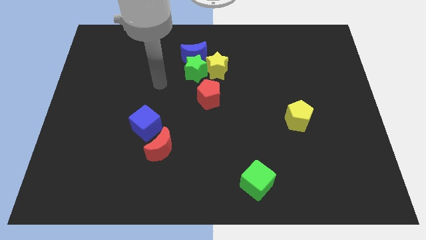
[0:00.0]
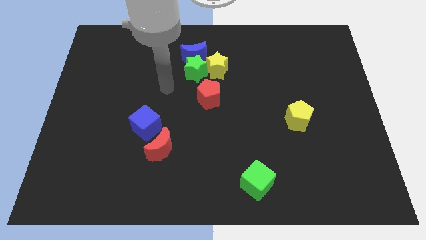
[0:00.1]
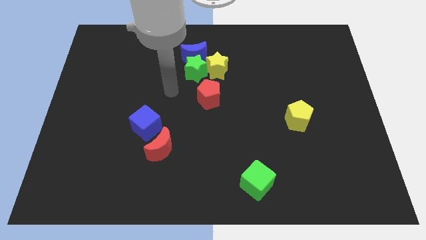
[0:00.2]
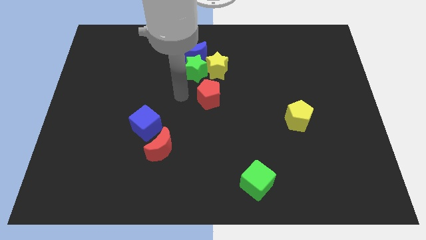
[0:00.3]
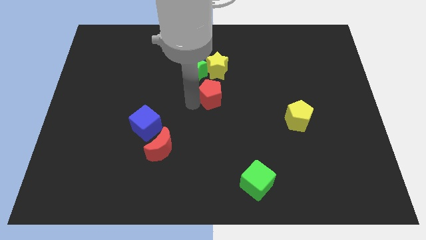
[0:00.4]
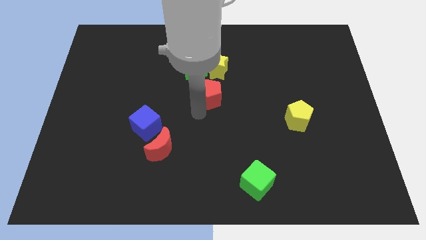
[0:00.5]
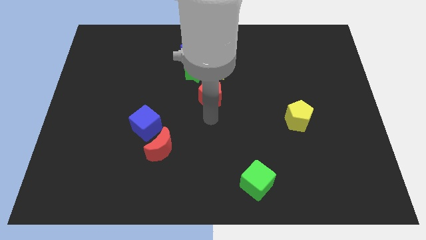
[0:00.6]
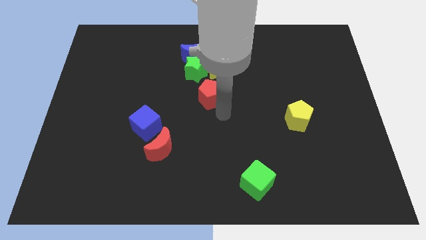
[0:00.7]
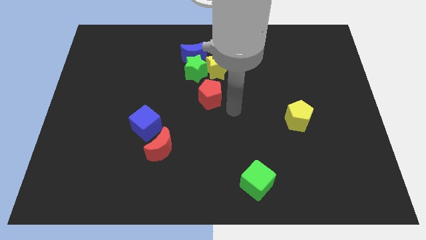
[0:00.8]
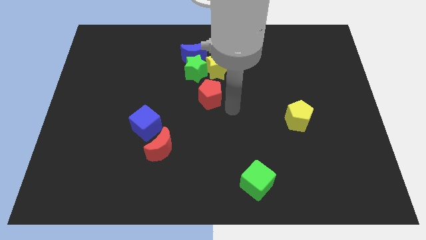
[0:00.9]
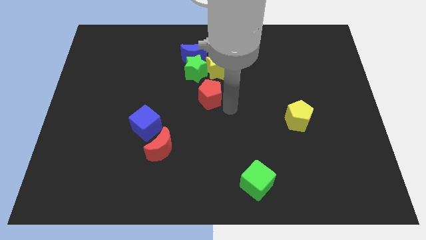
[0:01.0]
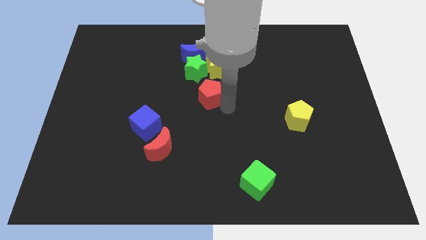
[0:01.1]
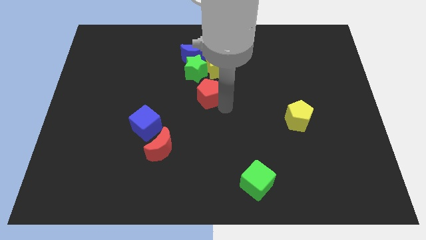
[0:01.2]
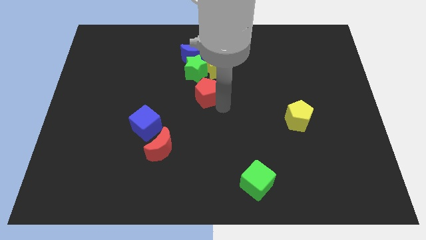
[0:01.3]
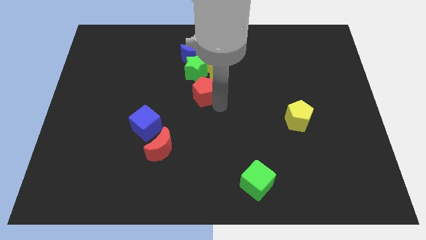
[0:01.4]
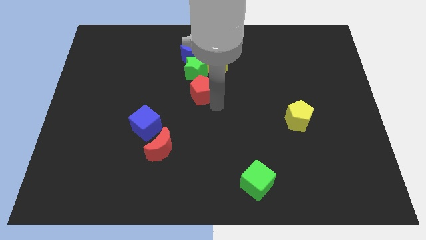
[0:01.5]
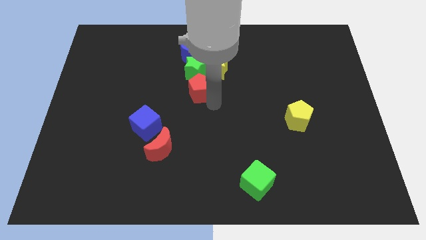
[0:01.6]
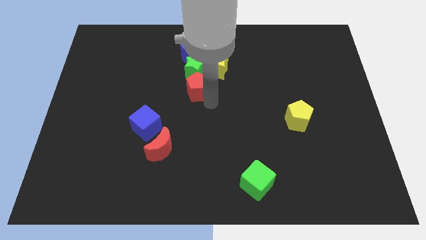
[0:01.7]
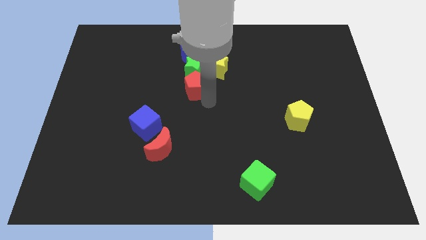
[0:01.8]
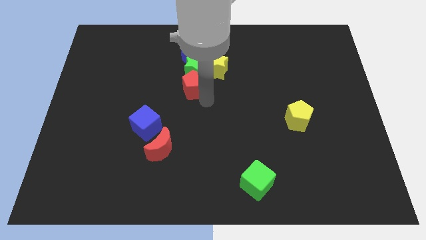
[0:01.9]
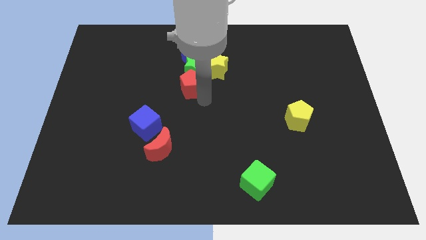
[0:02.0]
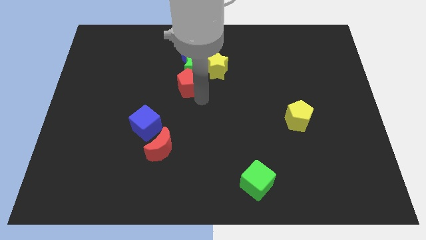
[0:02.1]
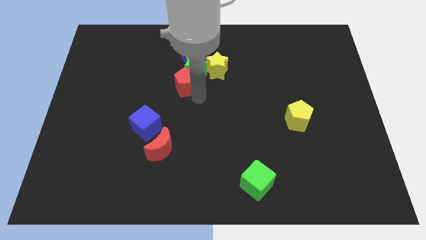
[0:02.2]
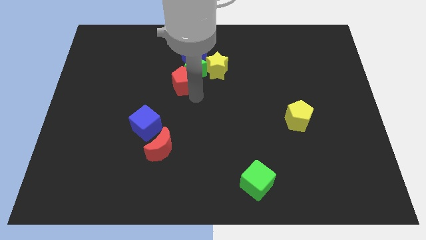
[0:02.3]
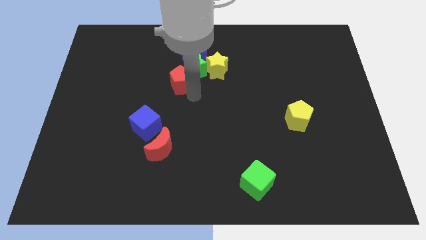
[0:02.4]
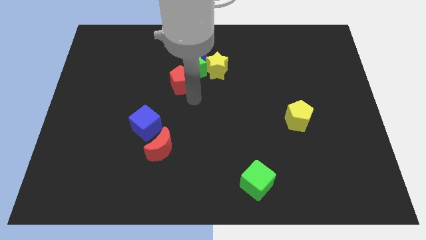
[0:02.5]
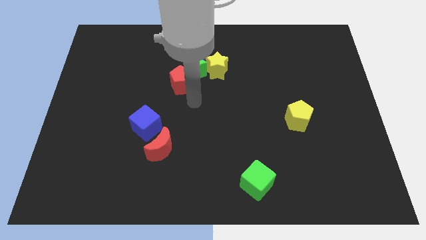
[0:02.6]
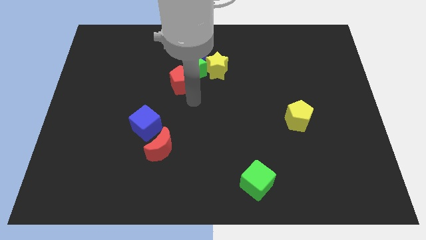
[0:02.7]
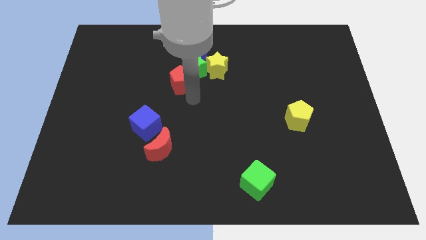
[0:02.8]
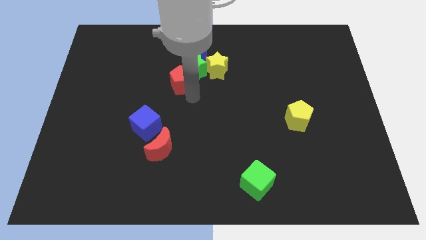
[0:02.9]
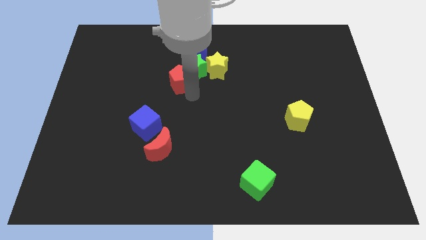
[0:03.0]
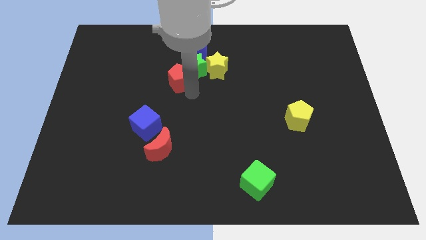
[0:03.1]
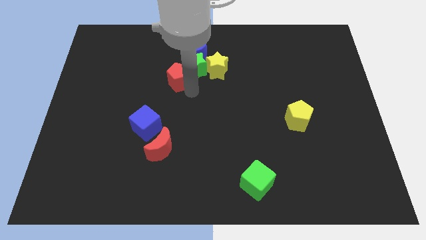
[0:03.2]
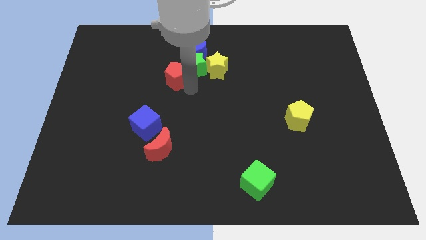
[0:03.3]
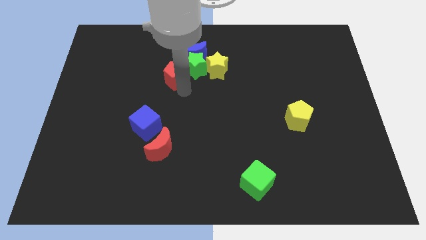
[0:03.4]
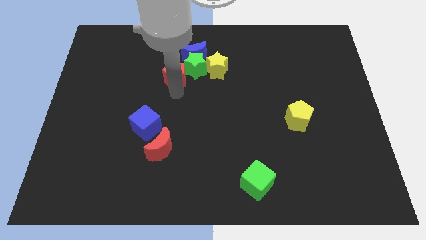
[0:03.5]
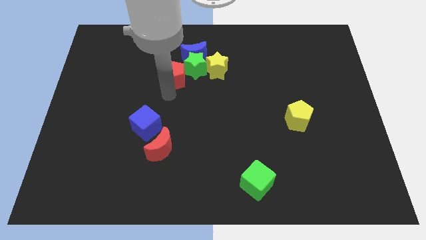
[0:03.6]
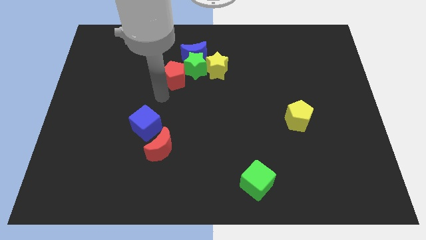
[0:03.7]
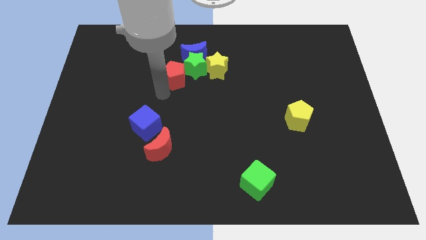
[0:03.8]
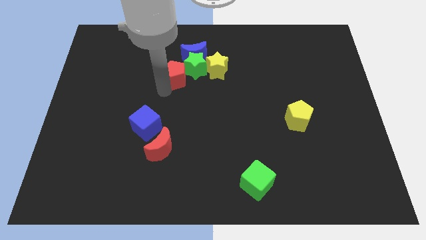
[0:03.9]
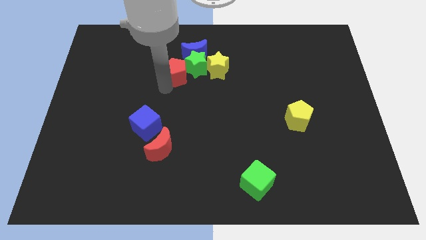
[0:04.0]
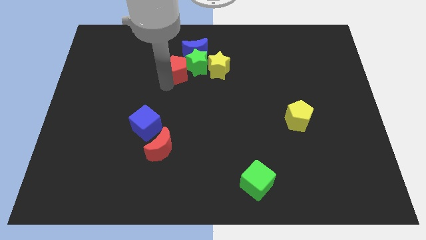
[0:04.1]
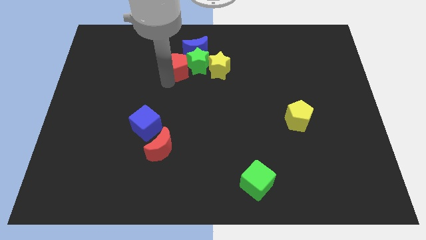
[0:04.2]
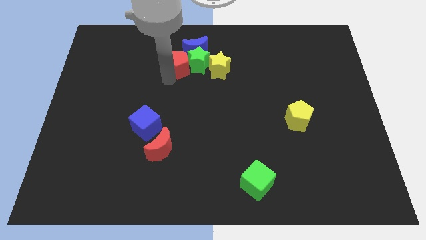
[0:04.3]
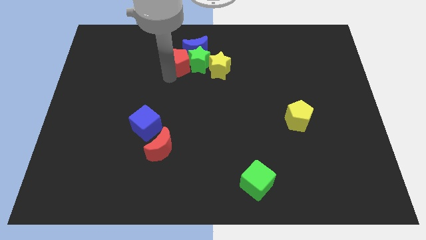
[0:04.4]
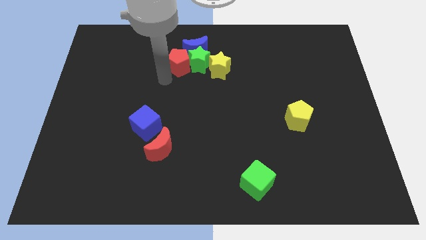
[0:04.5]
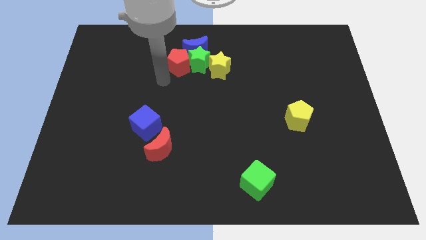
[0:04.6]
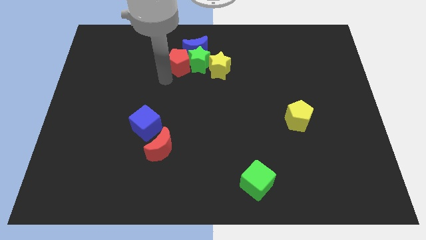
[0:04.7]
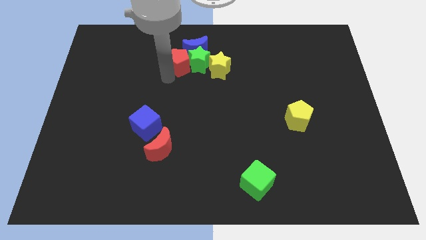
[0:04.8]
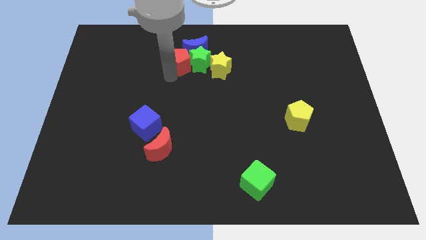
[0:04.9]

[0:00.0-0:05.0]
put the red pentagon to the blue moon

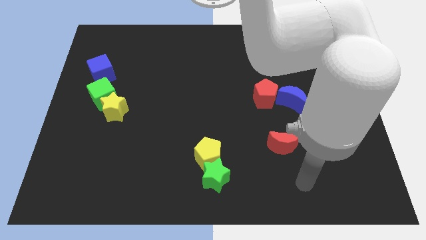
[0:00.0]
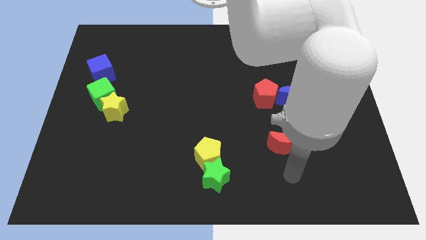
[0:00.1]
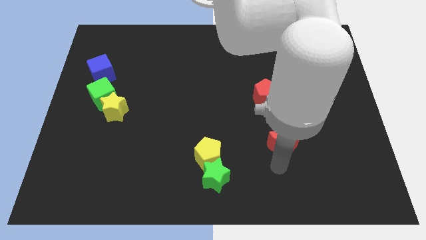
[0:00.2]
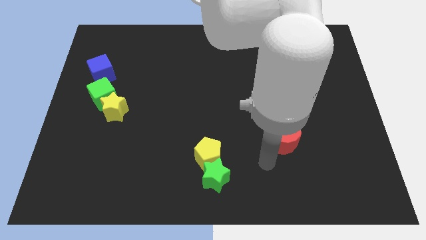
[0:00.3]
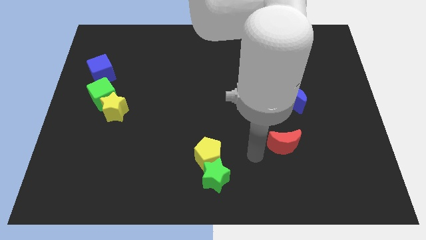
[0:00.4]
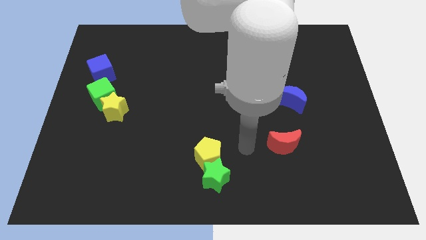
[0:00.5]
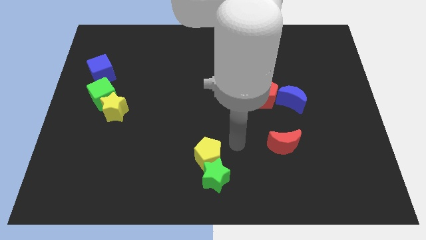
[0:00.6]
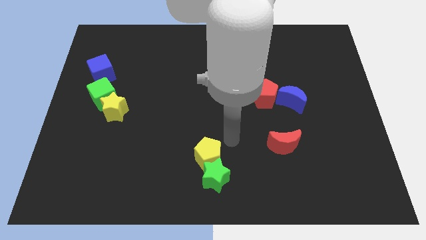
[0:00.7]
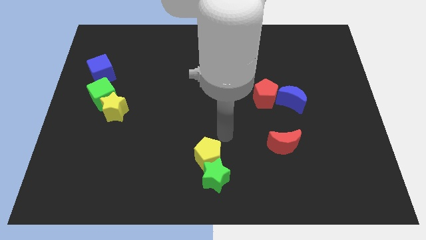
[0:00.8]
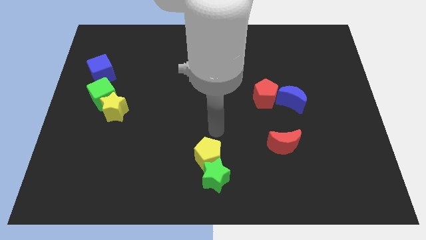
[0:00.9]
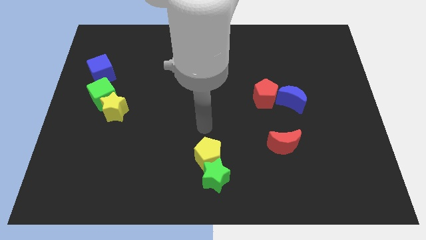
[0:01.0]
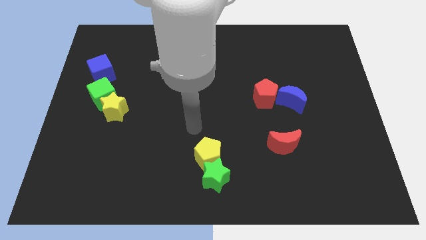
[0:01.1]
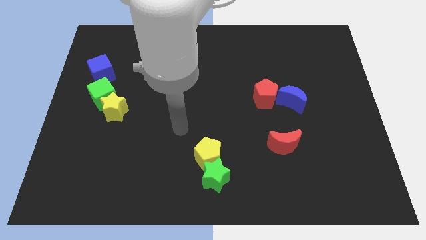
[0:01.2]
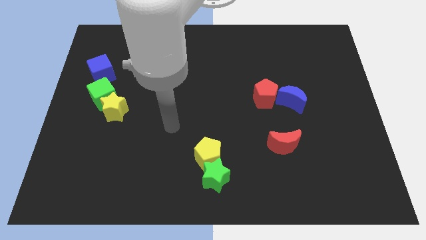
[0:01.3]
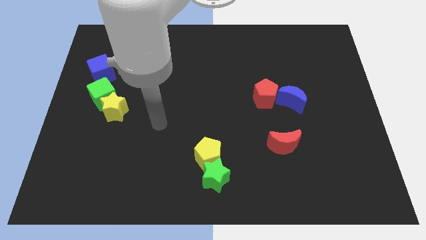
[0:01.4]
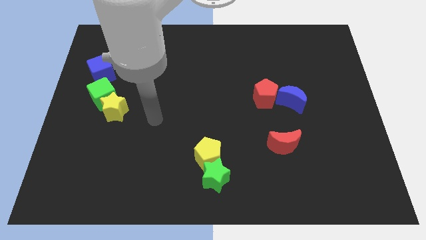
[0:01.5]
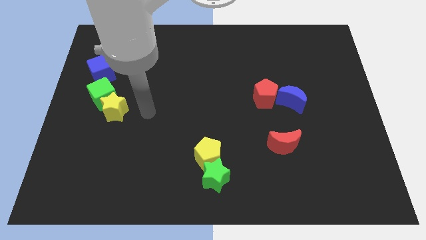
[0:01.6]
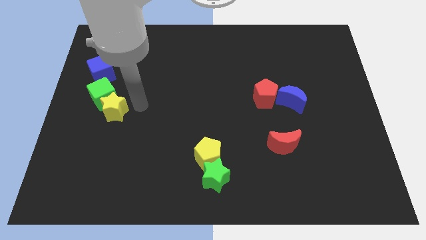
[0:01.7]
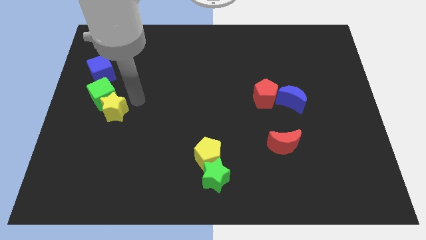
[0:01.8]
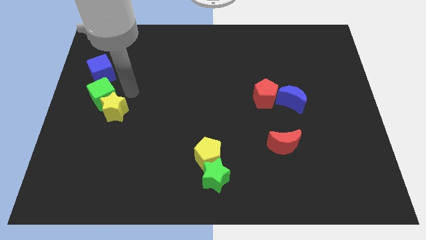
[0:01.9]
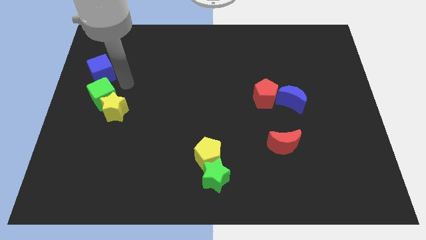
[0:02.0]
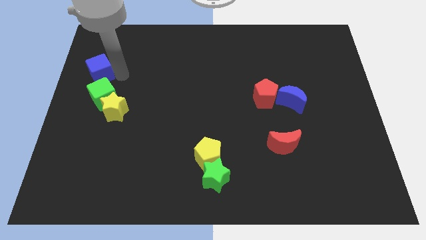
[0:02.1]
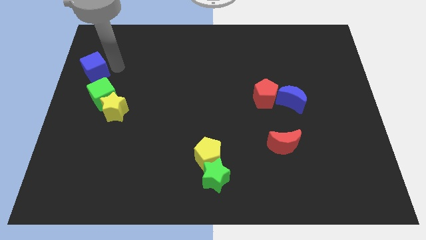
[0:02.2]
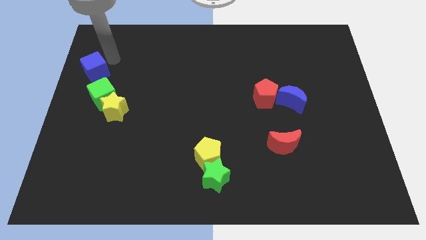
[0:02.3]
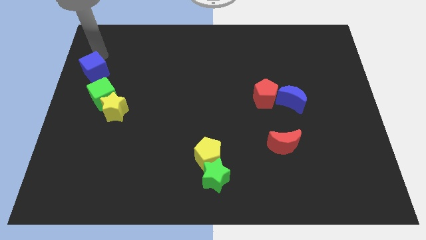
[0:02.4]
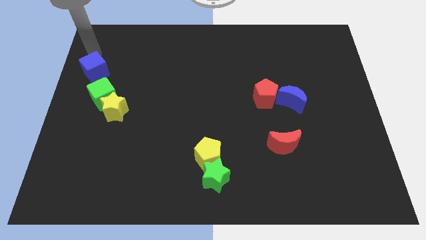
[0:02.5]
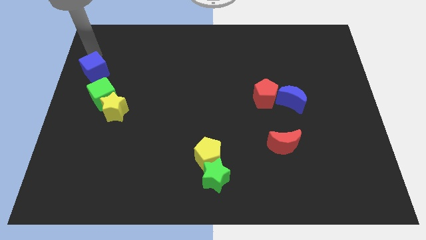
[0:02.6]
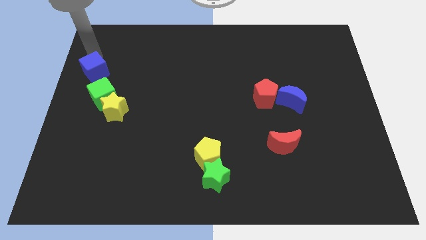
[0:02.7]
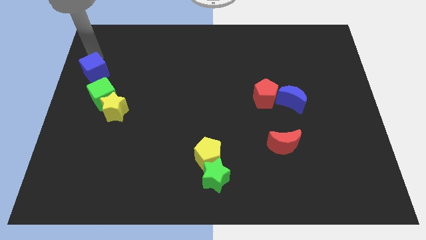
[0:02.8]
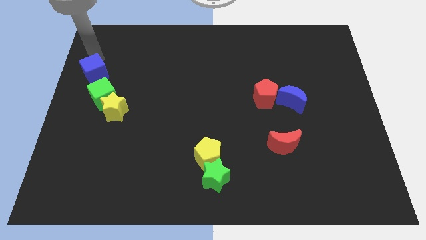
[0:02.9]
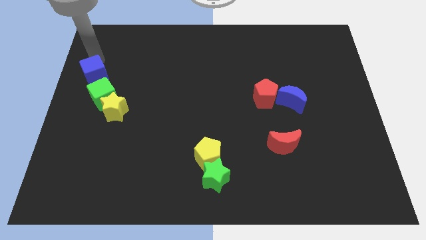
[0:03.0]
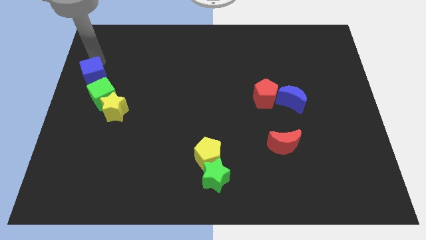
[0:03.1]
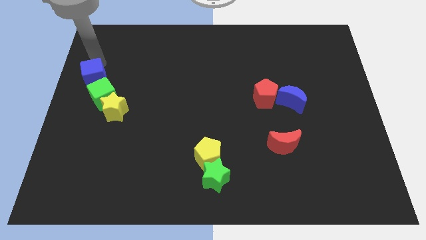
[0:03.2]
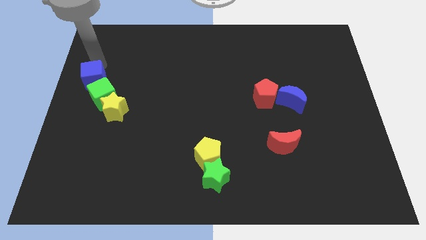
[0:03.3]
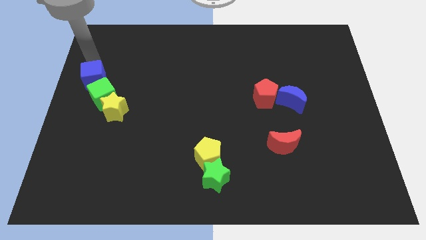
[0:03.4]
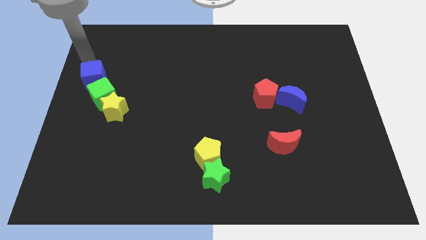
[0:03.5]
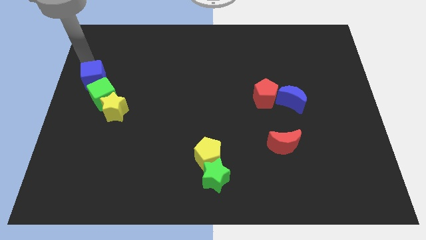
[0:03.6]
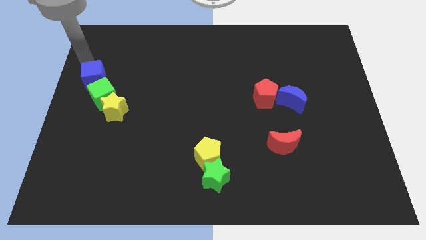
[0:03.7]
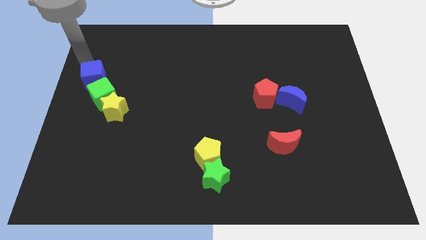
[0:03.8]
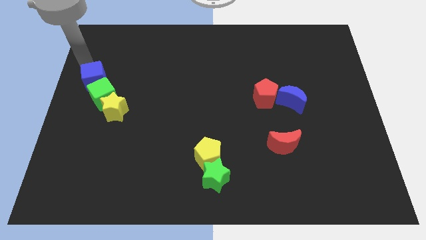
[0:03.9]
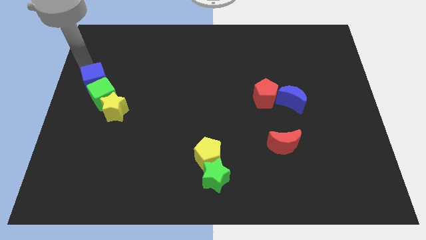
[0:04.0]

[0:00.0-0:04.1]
slide the blue cube towards the green cube
